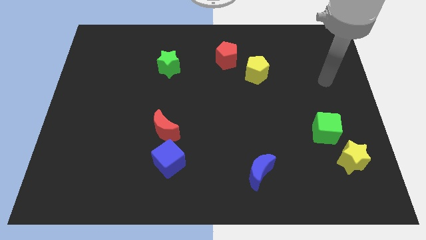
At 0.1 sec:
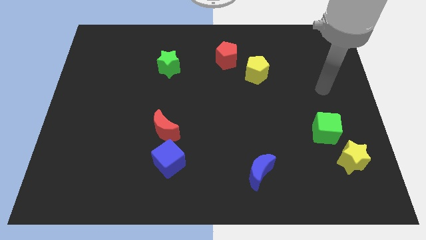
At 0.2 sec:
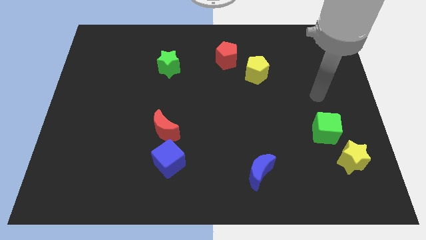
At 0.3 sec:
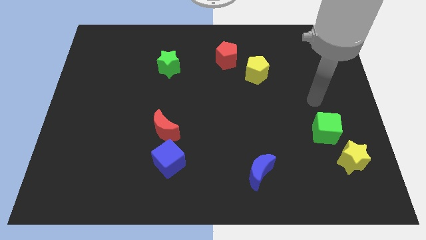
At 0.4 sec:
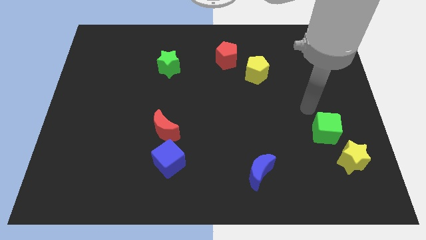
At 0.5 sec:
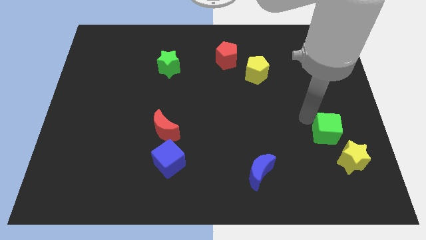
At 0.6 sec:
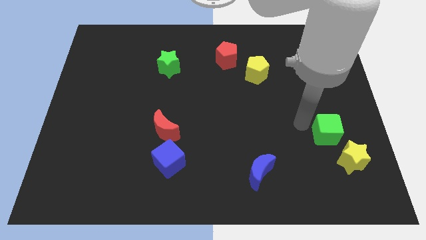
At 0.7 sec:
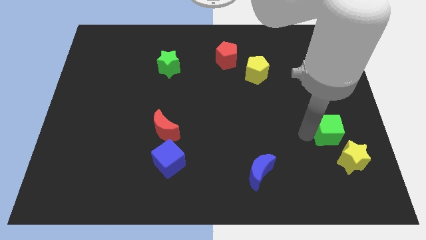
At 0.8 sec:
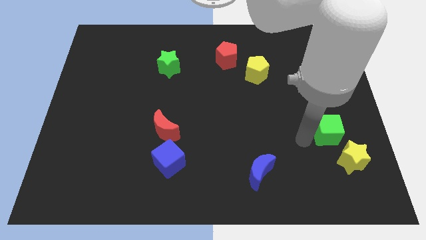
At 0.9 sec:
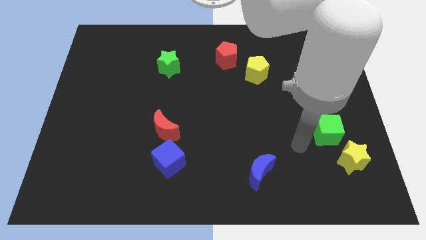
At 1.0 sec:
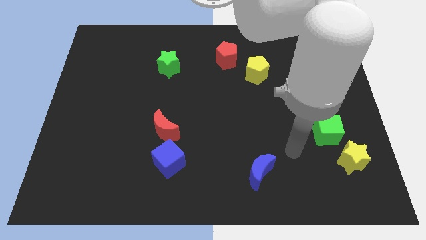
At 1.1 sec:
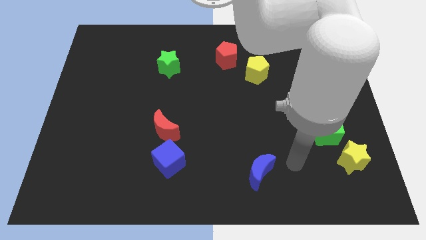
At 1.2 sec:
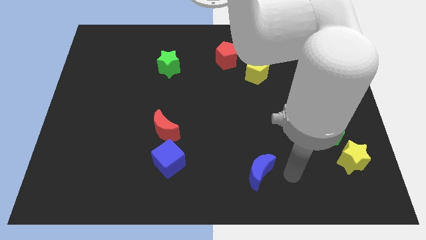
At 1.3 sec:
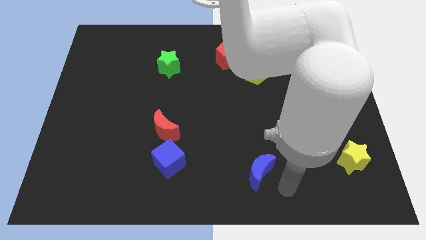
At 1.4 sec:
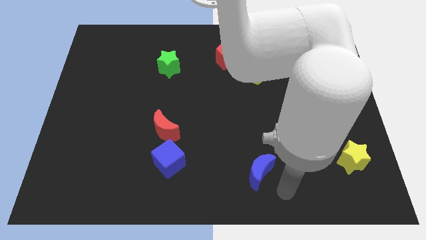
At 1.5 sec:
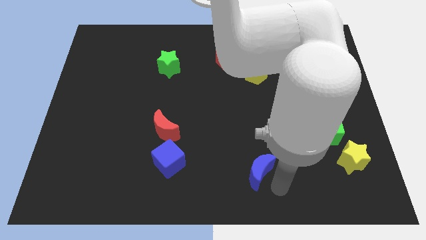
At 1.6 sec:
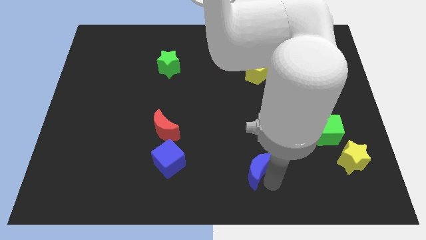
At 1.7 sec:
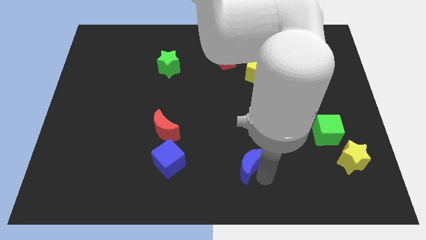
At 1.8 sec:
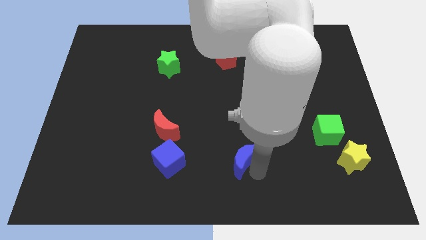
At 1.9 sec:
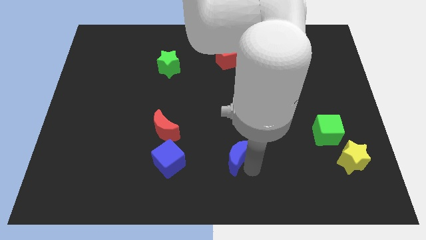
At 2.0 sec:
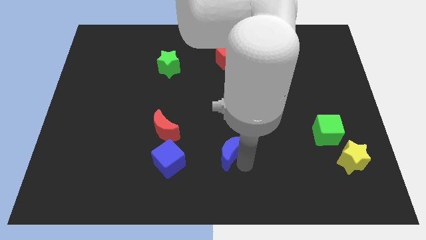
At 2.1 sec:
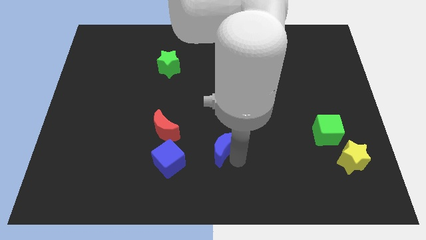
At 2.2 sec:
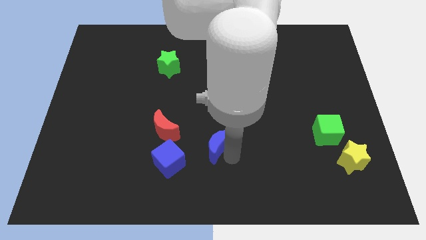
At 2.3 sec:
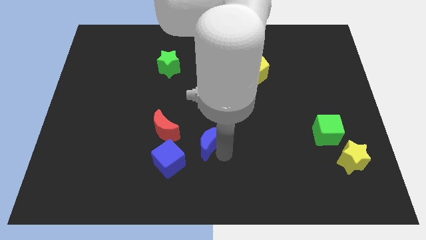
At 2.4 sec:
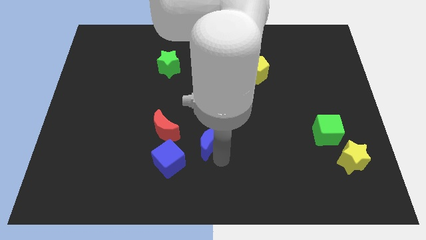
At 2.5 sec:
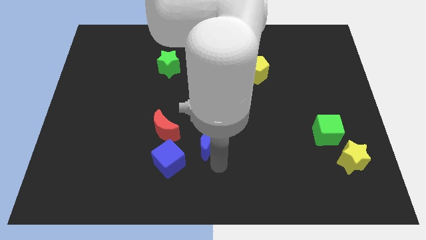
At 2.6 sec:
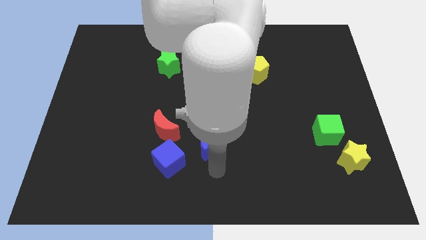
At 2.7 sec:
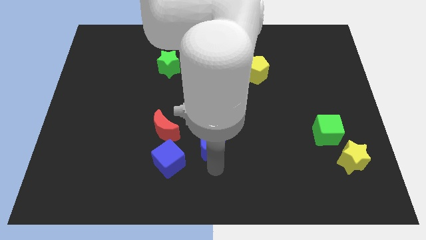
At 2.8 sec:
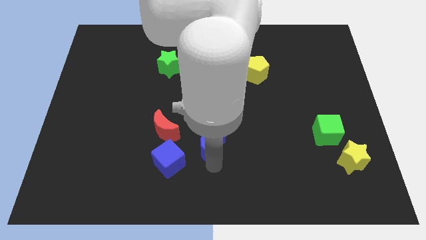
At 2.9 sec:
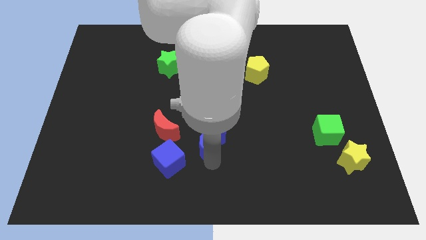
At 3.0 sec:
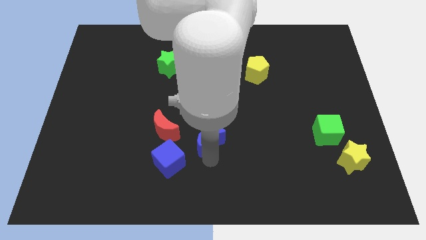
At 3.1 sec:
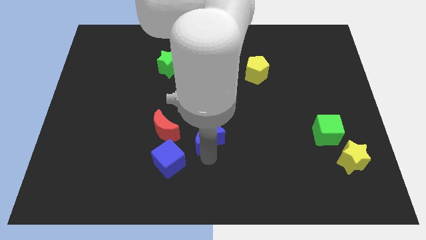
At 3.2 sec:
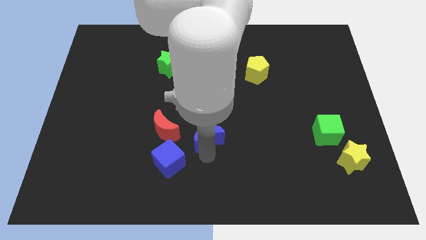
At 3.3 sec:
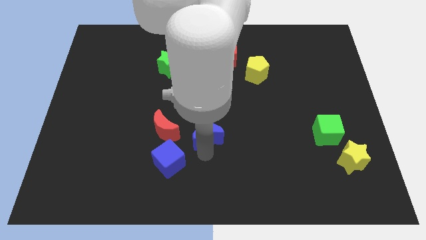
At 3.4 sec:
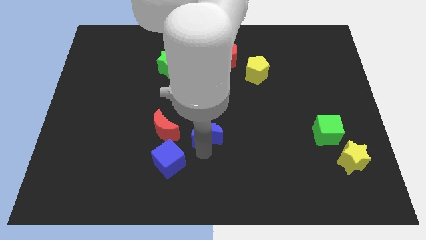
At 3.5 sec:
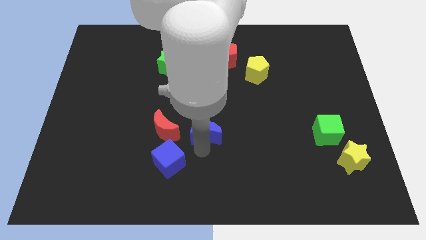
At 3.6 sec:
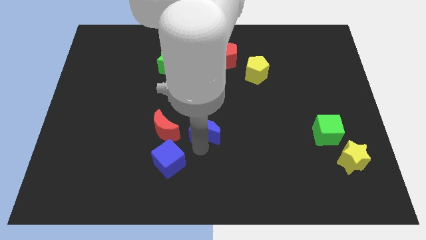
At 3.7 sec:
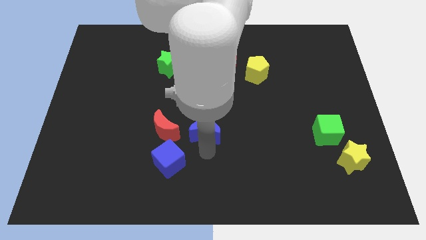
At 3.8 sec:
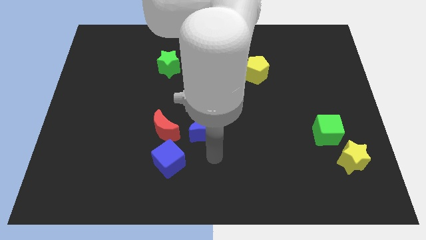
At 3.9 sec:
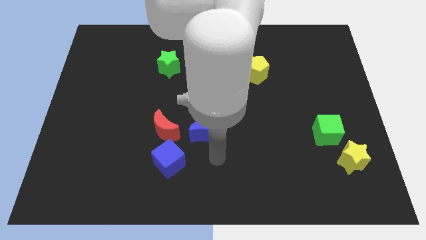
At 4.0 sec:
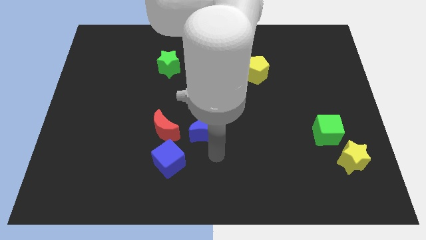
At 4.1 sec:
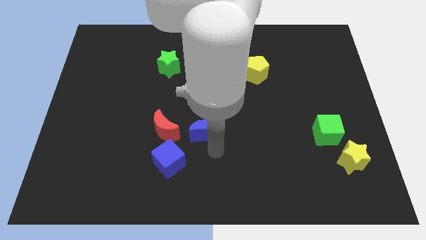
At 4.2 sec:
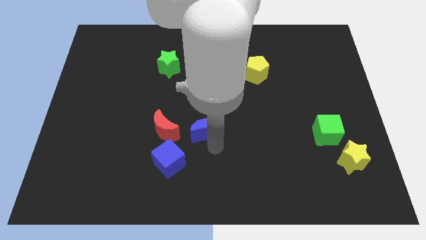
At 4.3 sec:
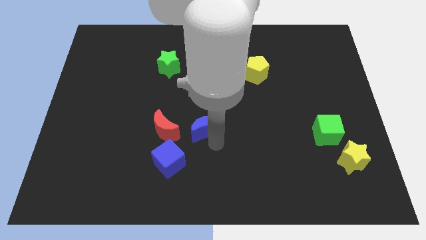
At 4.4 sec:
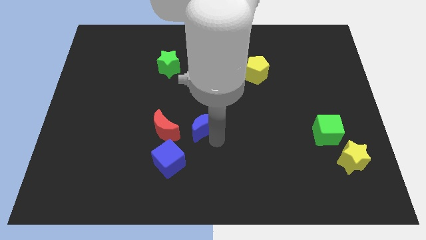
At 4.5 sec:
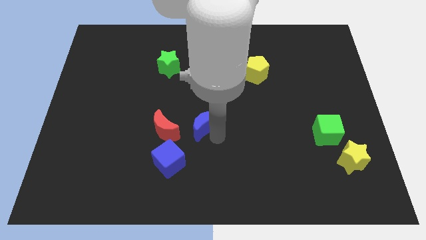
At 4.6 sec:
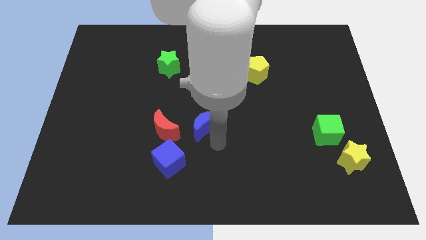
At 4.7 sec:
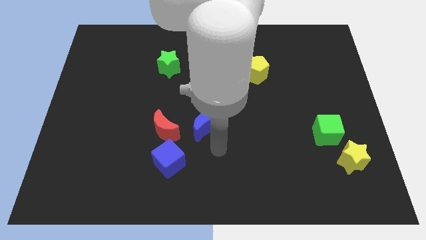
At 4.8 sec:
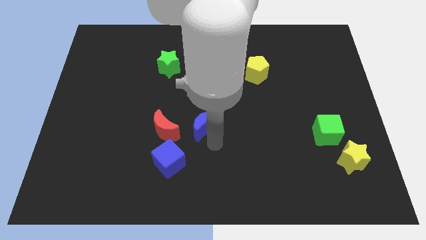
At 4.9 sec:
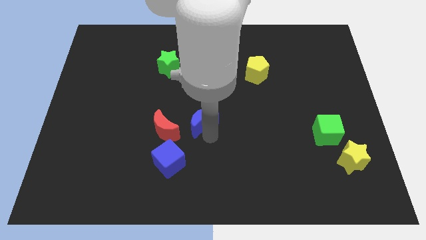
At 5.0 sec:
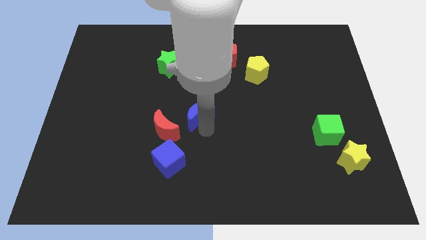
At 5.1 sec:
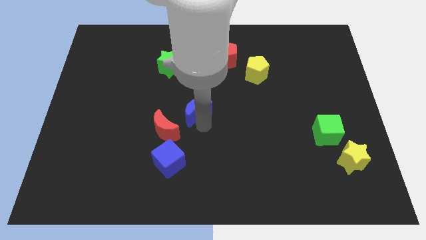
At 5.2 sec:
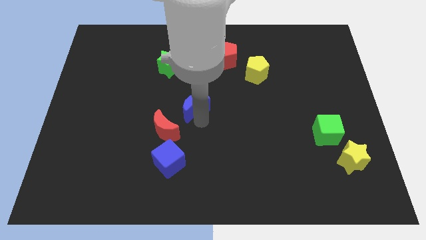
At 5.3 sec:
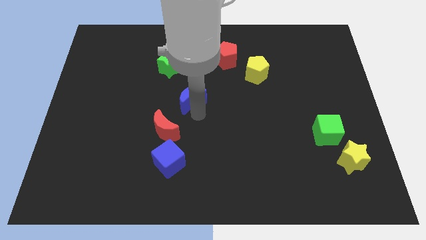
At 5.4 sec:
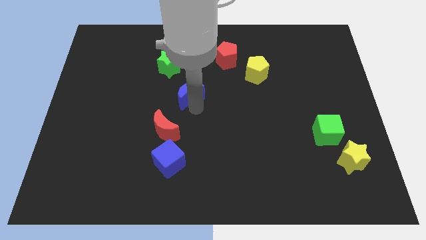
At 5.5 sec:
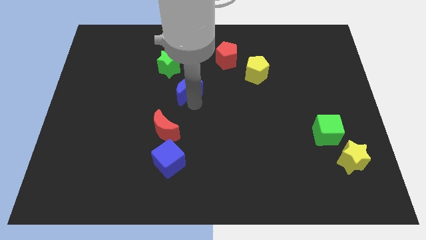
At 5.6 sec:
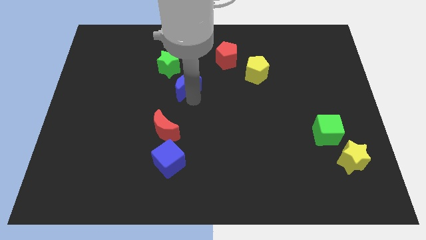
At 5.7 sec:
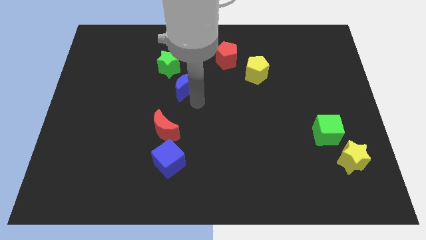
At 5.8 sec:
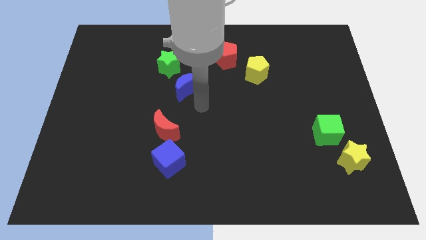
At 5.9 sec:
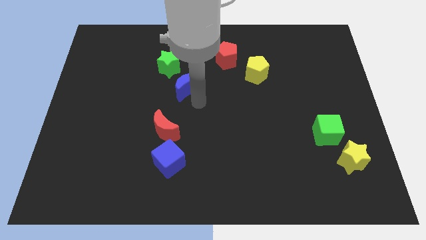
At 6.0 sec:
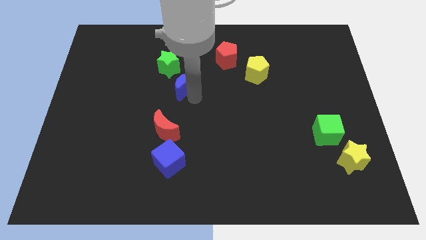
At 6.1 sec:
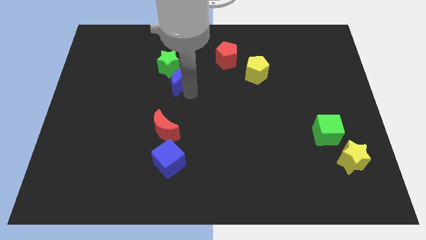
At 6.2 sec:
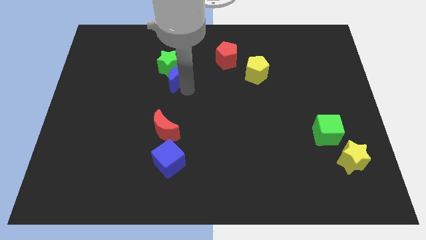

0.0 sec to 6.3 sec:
slide the blue moon close to the green star
